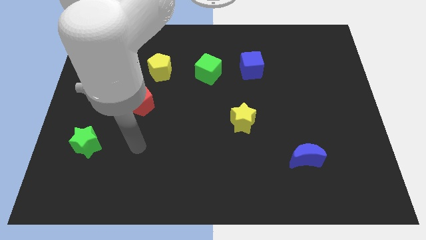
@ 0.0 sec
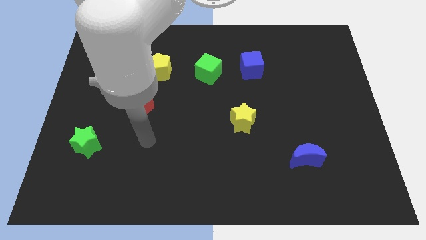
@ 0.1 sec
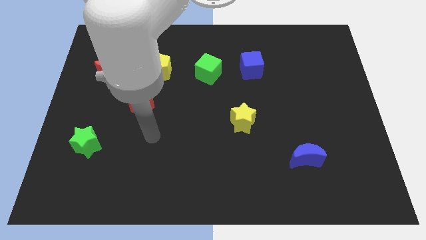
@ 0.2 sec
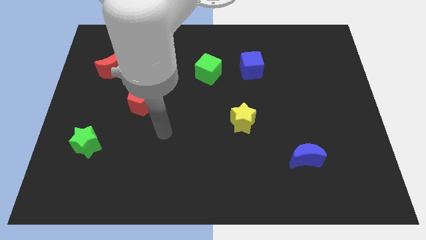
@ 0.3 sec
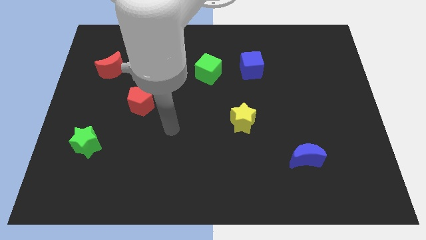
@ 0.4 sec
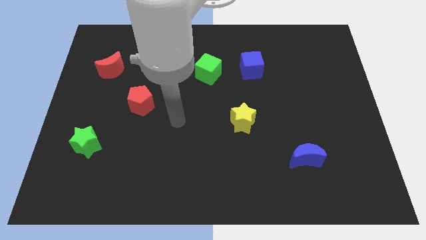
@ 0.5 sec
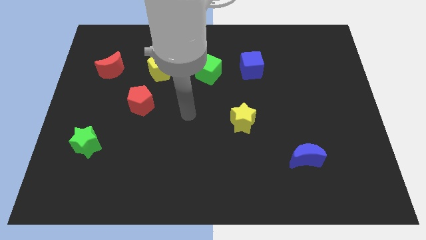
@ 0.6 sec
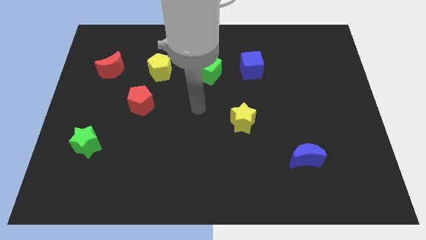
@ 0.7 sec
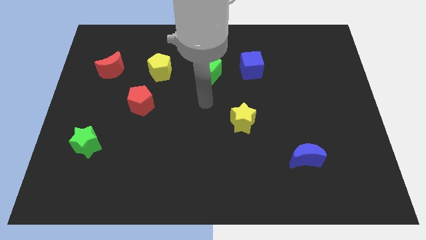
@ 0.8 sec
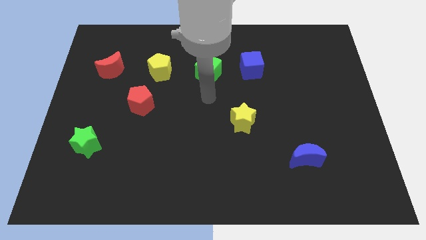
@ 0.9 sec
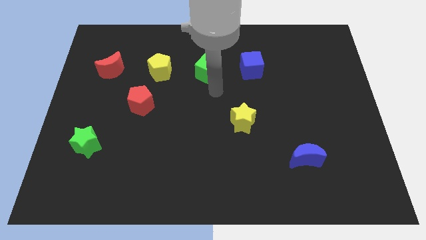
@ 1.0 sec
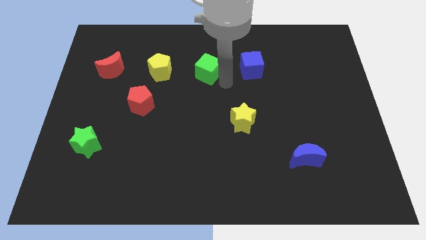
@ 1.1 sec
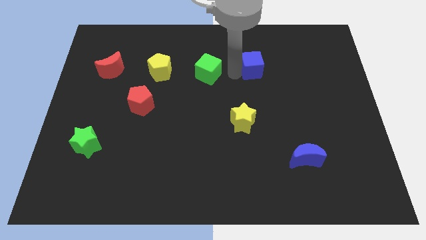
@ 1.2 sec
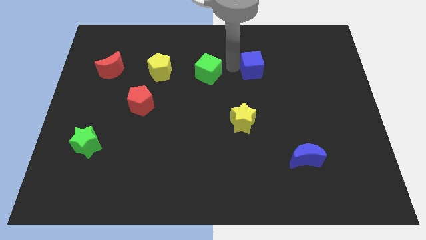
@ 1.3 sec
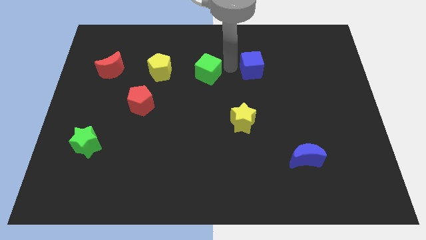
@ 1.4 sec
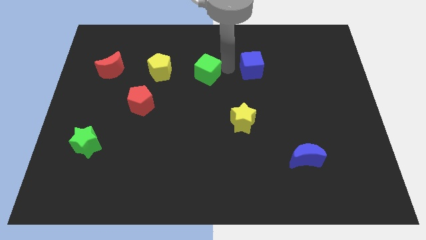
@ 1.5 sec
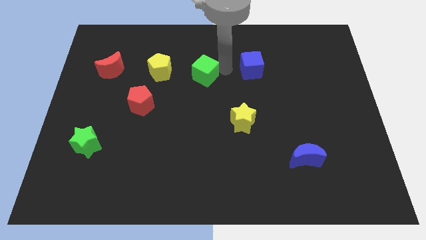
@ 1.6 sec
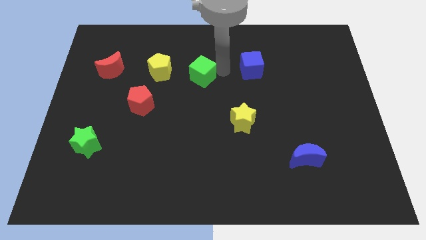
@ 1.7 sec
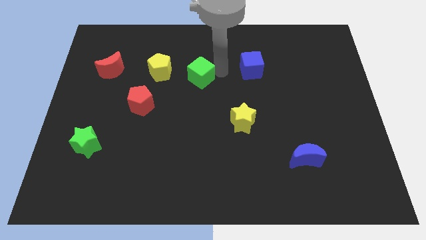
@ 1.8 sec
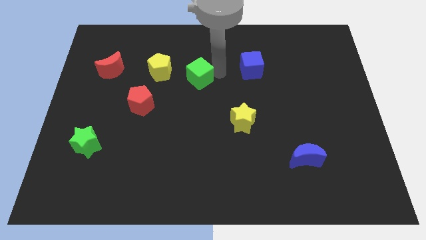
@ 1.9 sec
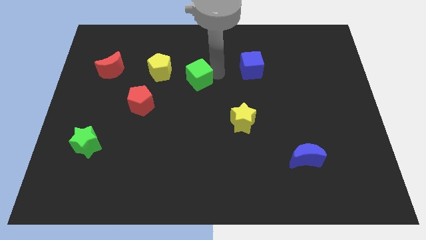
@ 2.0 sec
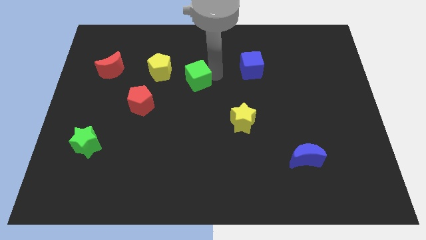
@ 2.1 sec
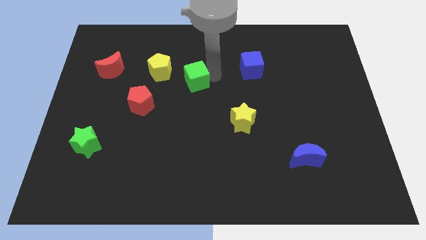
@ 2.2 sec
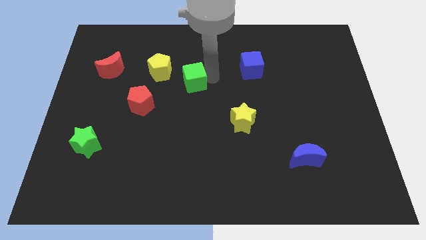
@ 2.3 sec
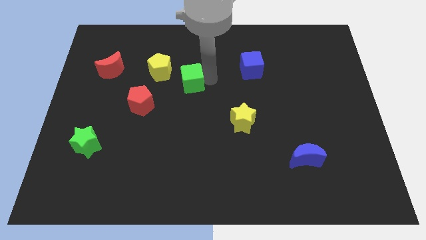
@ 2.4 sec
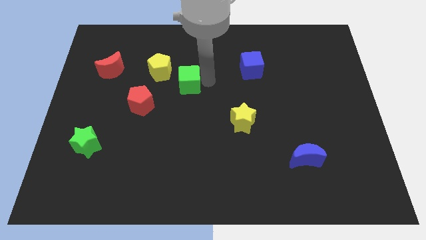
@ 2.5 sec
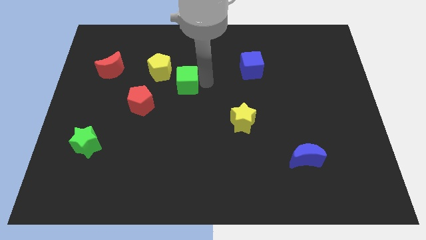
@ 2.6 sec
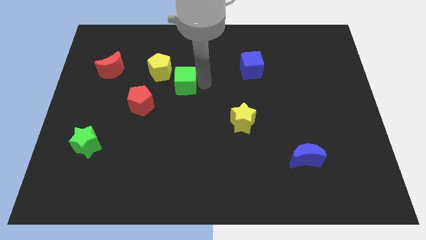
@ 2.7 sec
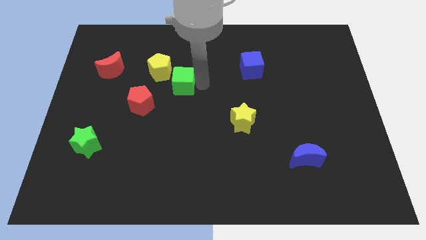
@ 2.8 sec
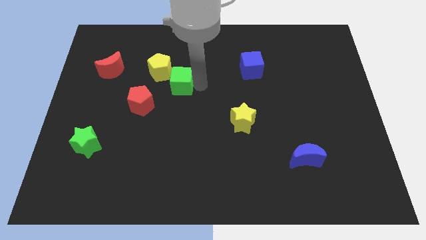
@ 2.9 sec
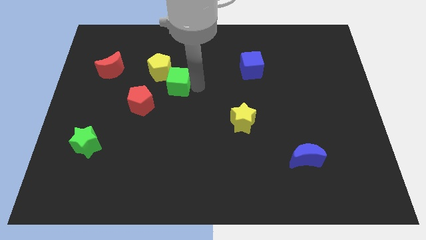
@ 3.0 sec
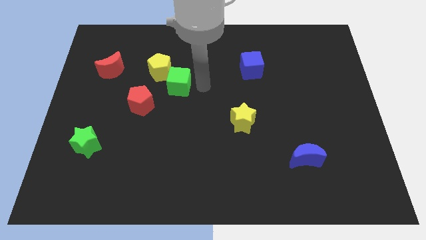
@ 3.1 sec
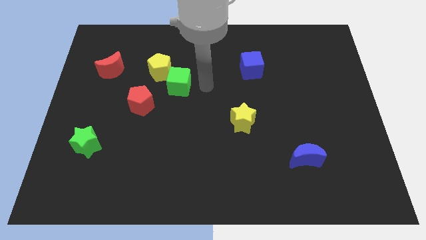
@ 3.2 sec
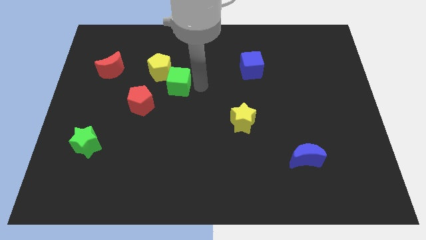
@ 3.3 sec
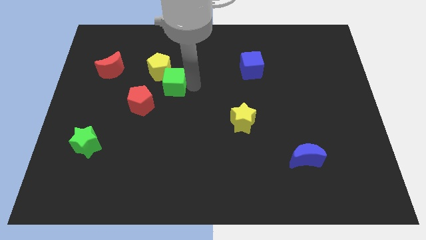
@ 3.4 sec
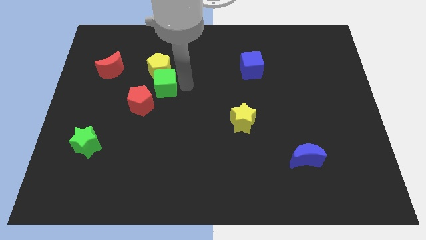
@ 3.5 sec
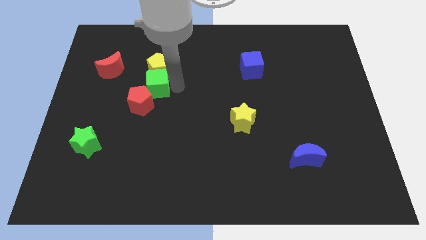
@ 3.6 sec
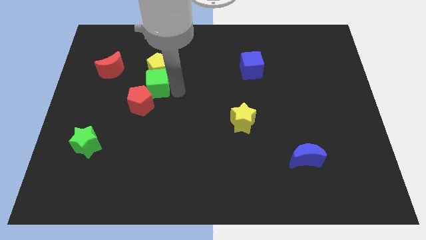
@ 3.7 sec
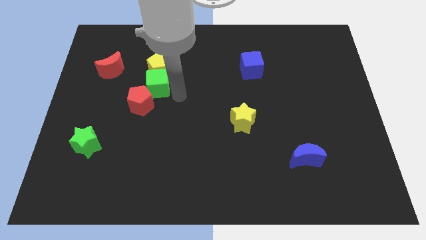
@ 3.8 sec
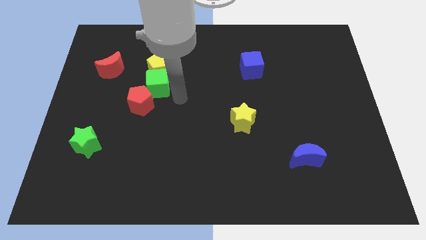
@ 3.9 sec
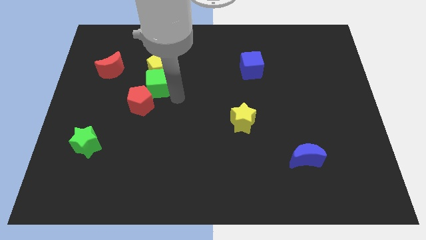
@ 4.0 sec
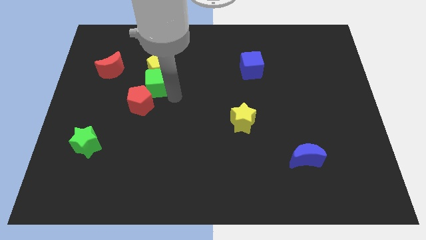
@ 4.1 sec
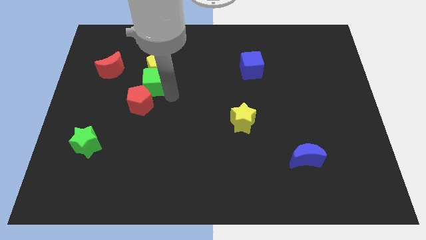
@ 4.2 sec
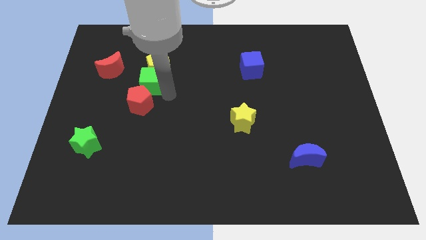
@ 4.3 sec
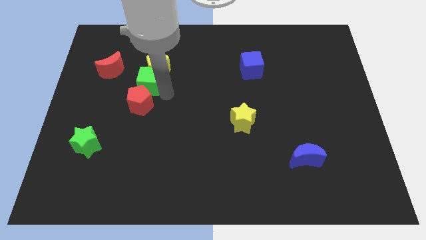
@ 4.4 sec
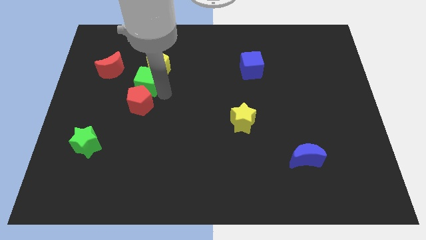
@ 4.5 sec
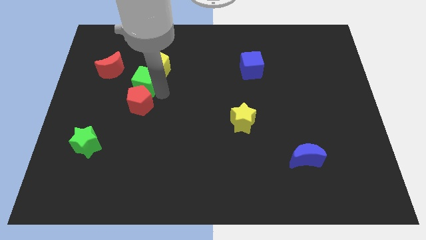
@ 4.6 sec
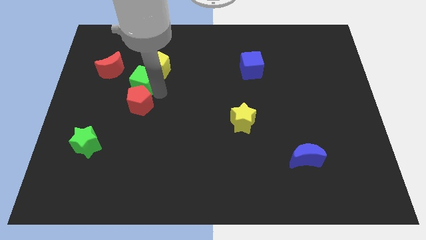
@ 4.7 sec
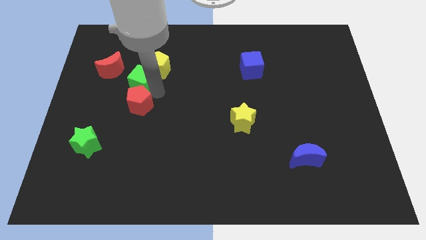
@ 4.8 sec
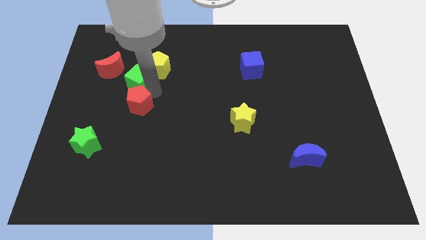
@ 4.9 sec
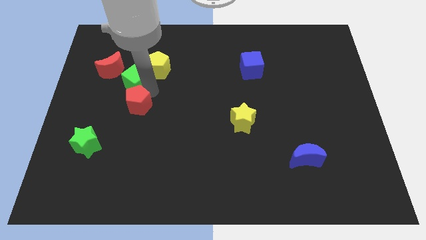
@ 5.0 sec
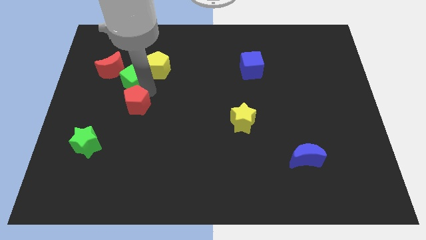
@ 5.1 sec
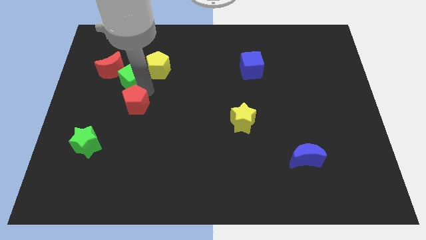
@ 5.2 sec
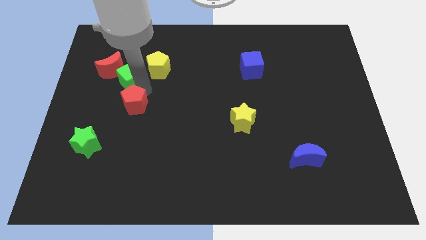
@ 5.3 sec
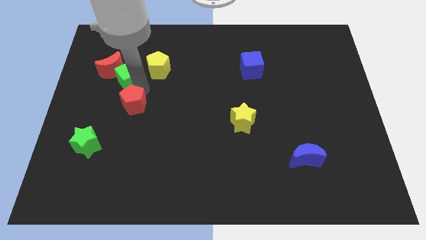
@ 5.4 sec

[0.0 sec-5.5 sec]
move the green cube close to the red moon

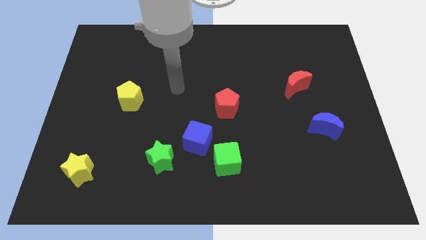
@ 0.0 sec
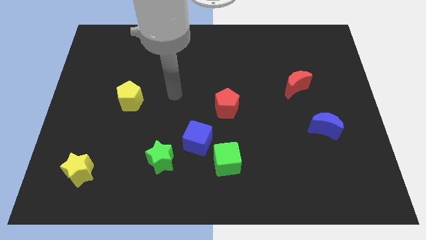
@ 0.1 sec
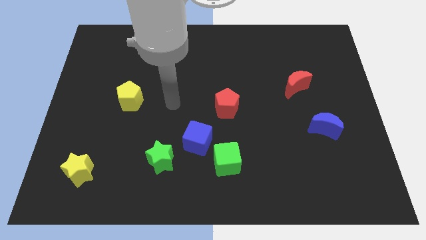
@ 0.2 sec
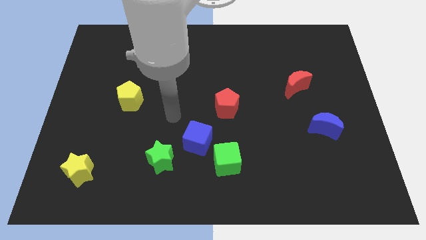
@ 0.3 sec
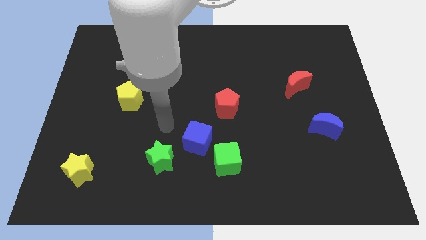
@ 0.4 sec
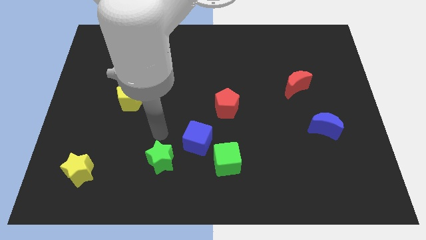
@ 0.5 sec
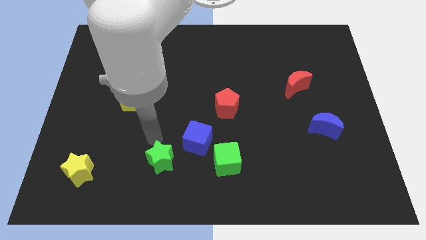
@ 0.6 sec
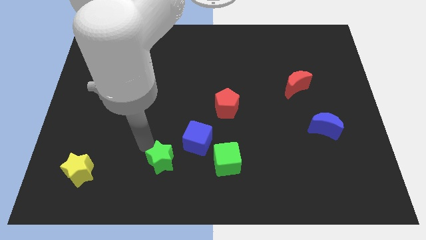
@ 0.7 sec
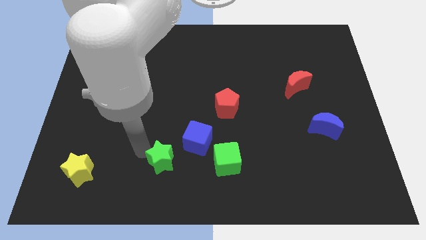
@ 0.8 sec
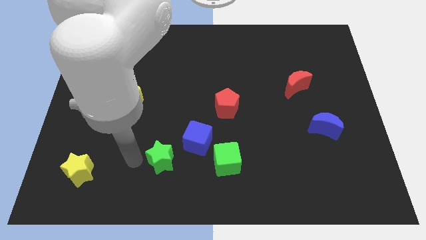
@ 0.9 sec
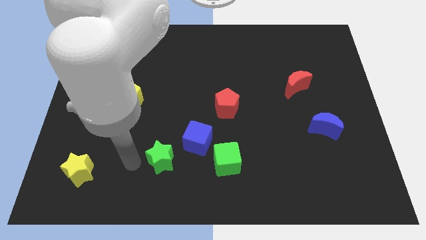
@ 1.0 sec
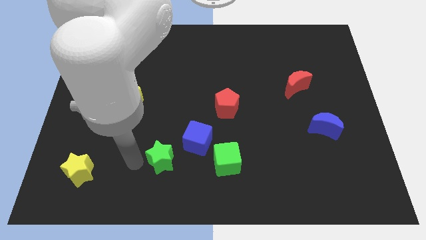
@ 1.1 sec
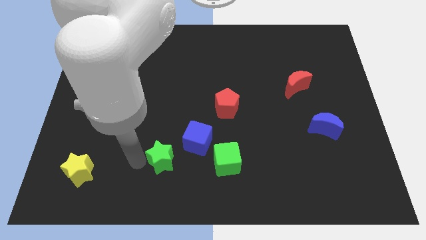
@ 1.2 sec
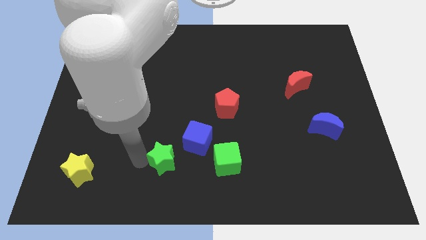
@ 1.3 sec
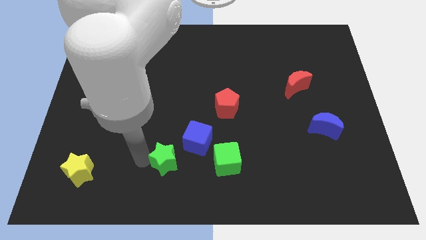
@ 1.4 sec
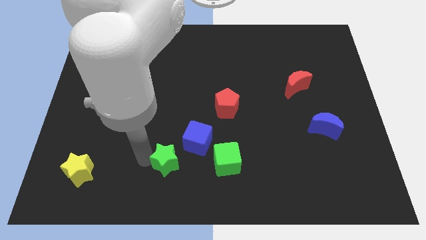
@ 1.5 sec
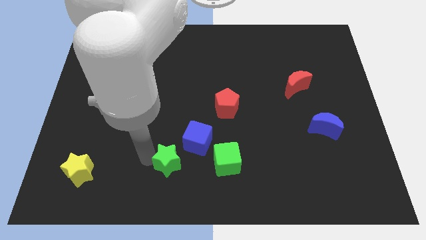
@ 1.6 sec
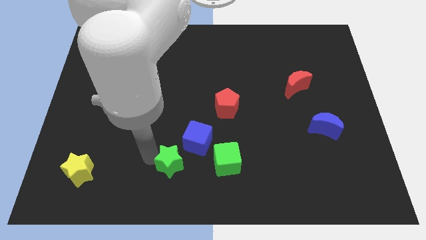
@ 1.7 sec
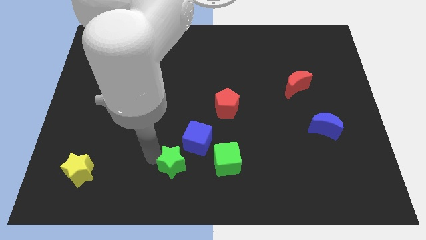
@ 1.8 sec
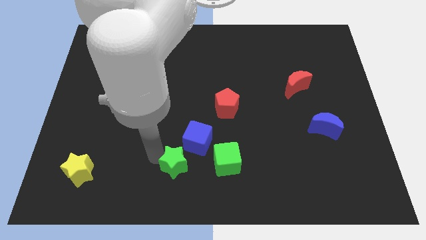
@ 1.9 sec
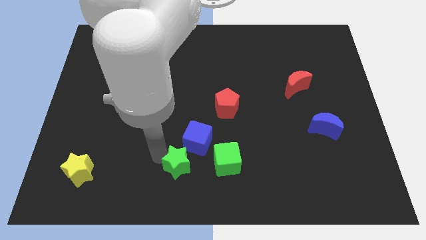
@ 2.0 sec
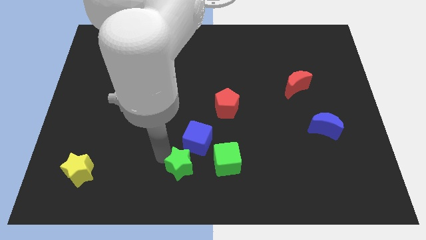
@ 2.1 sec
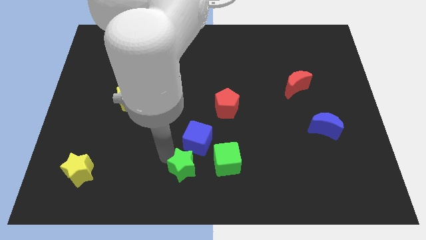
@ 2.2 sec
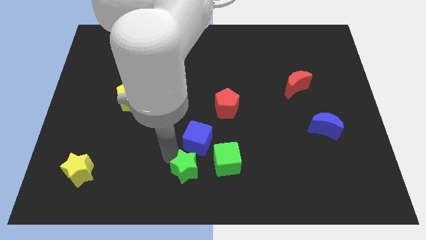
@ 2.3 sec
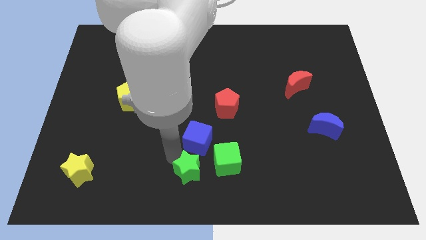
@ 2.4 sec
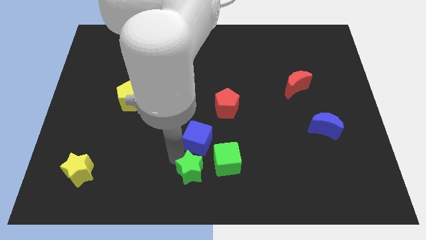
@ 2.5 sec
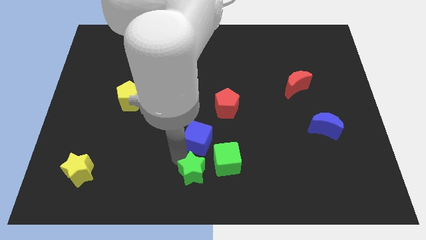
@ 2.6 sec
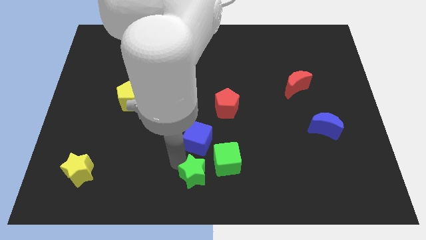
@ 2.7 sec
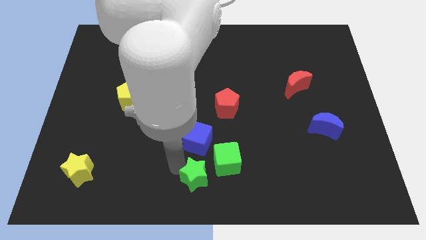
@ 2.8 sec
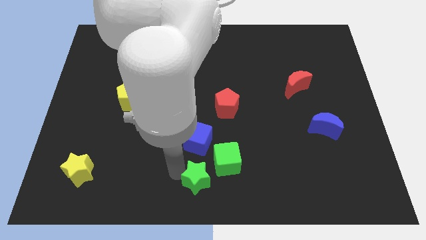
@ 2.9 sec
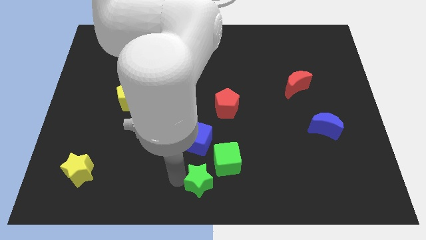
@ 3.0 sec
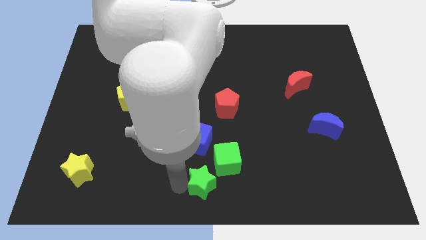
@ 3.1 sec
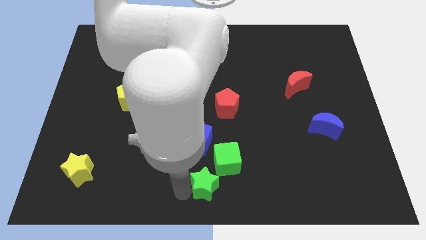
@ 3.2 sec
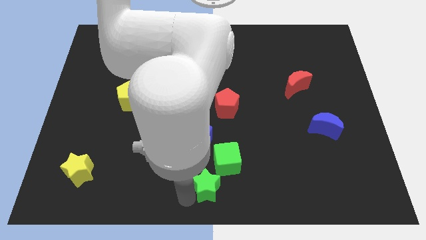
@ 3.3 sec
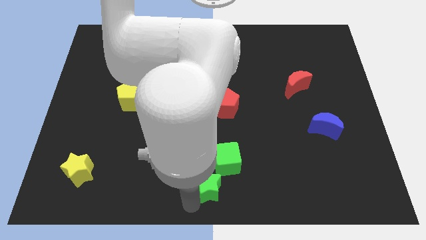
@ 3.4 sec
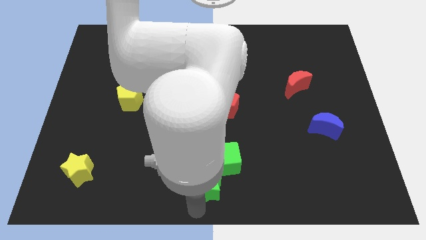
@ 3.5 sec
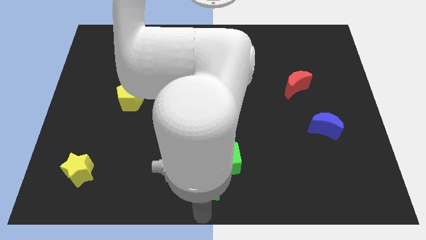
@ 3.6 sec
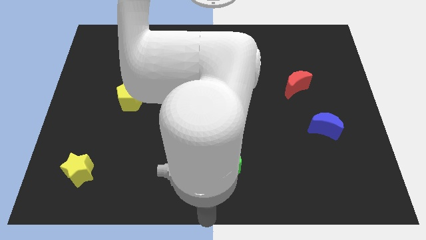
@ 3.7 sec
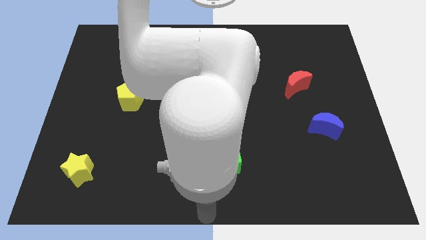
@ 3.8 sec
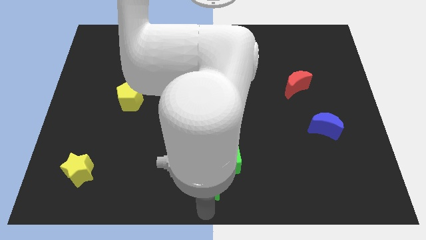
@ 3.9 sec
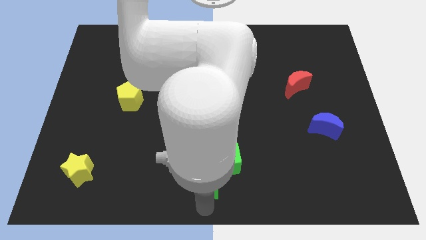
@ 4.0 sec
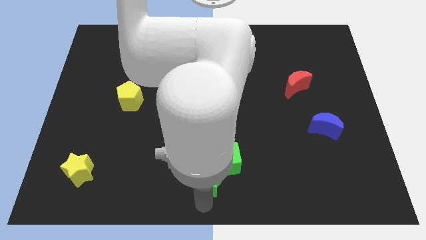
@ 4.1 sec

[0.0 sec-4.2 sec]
push the green star towards the green cube
